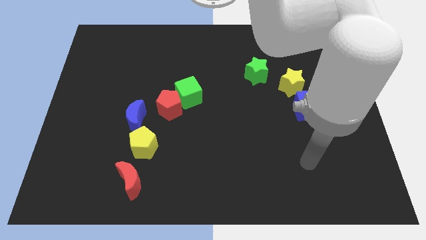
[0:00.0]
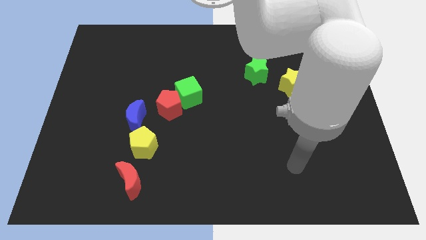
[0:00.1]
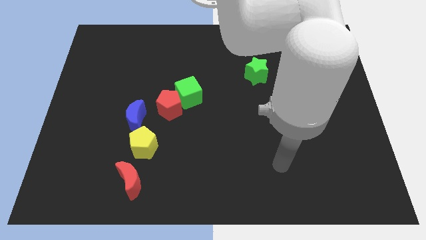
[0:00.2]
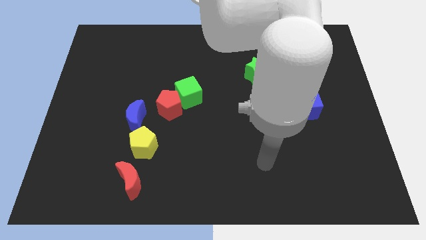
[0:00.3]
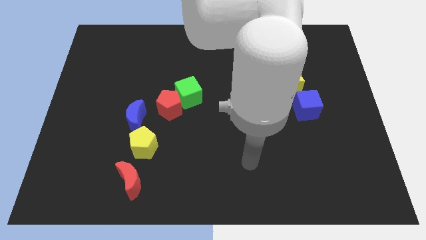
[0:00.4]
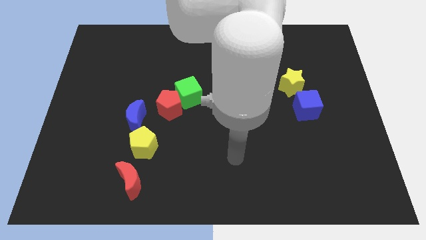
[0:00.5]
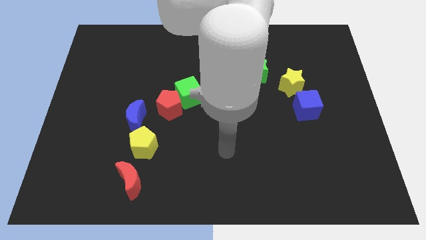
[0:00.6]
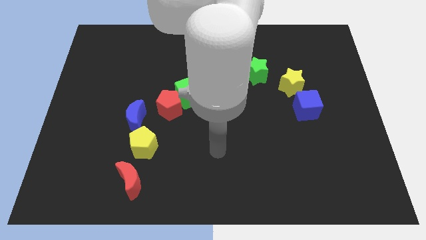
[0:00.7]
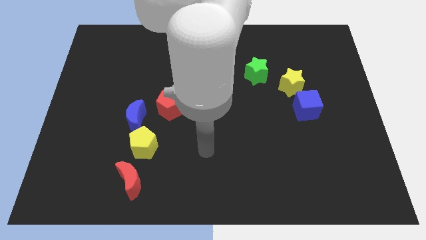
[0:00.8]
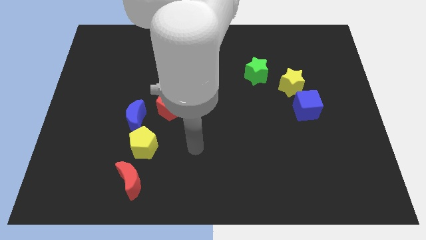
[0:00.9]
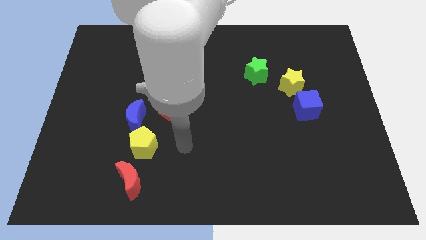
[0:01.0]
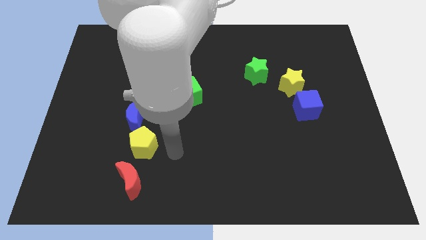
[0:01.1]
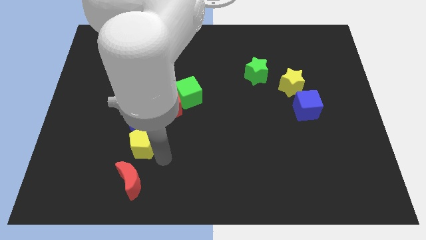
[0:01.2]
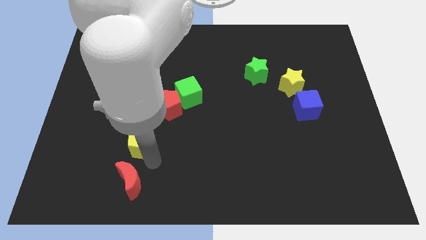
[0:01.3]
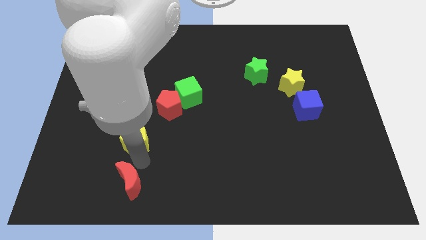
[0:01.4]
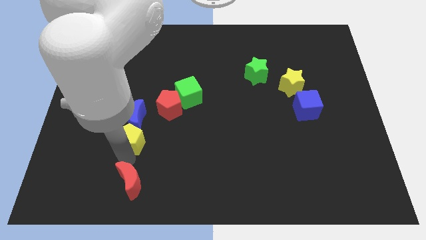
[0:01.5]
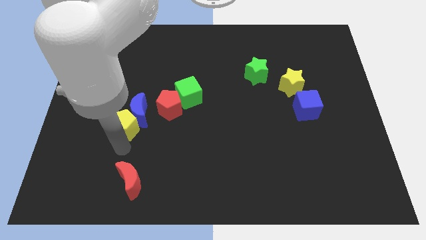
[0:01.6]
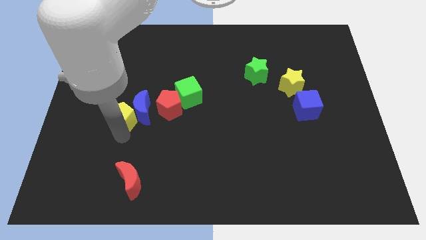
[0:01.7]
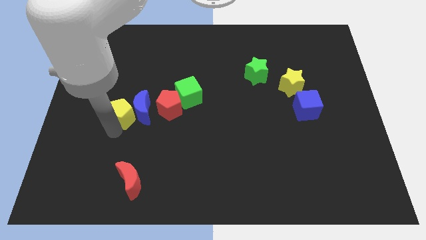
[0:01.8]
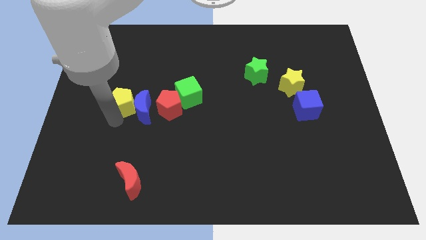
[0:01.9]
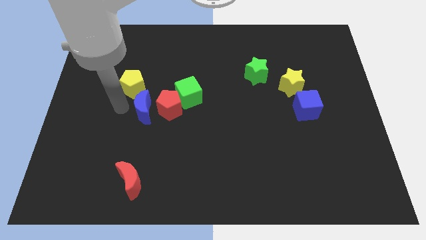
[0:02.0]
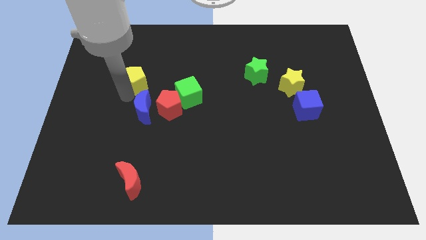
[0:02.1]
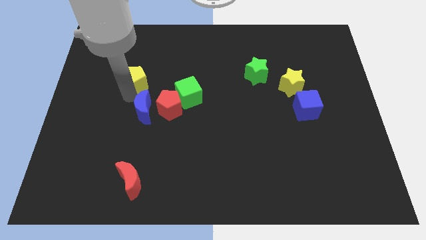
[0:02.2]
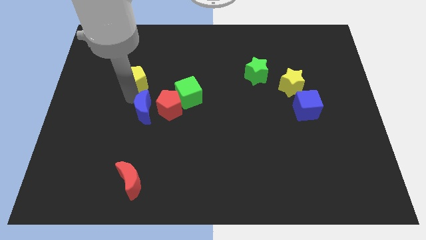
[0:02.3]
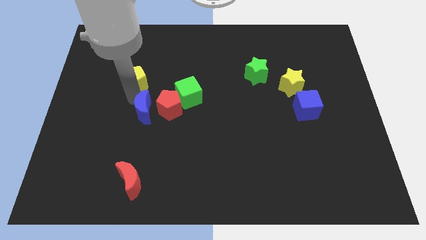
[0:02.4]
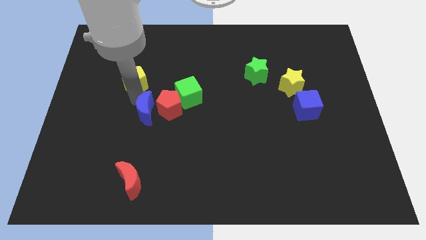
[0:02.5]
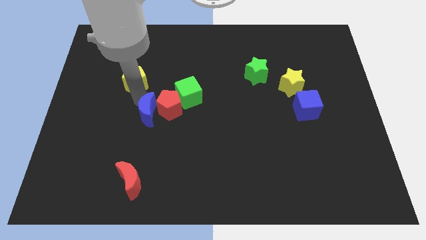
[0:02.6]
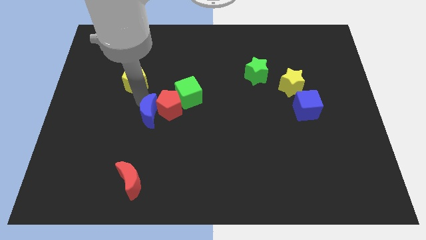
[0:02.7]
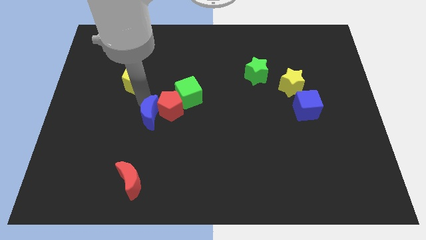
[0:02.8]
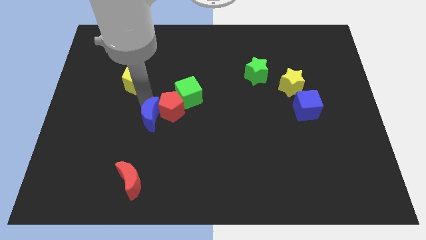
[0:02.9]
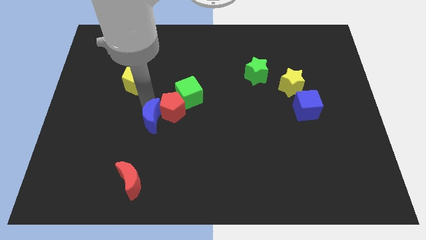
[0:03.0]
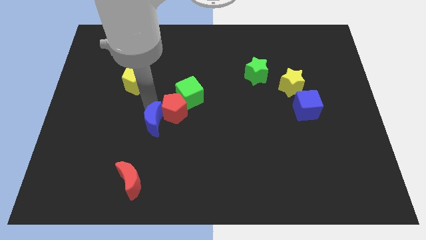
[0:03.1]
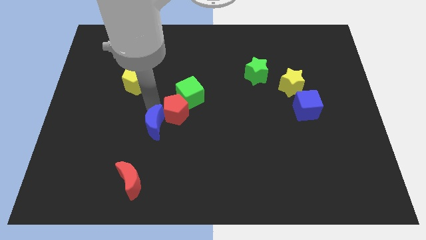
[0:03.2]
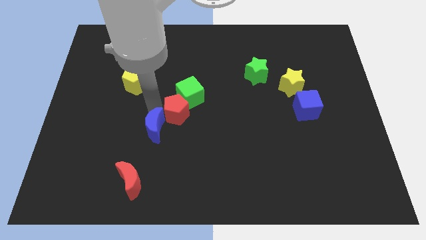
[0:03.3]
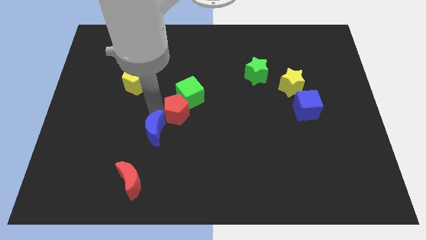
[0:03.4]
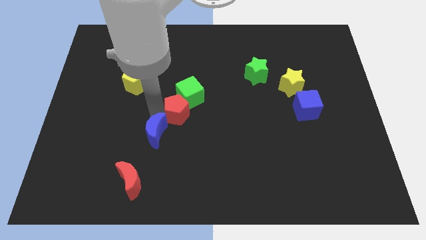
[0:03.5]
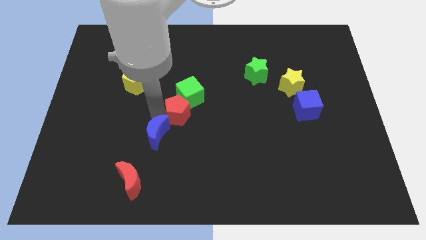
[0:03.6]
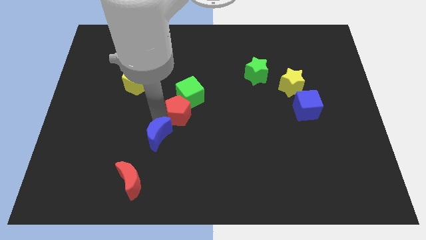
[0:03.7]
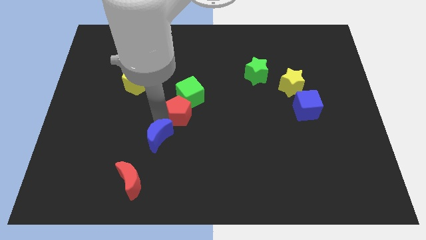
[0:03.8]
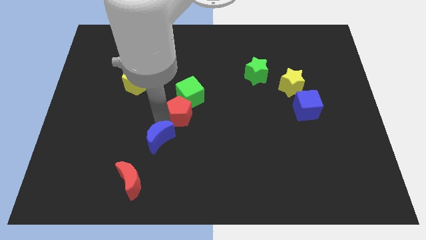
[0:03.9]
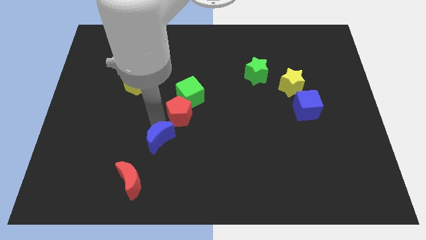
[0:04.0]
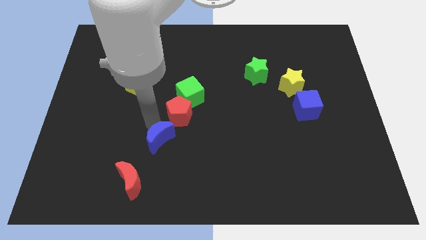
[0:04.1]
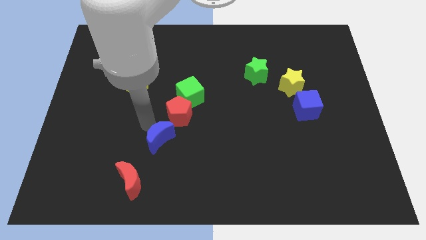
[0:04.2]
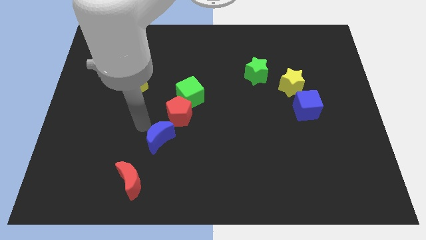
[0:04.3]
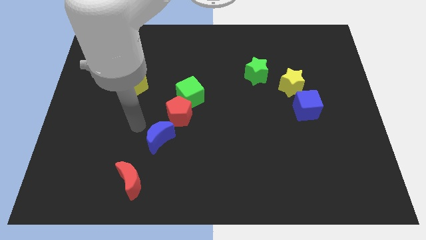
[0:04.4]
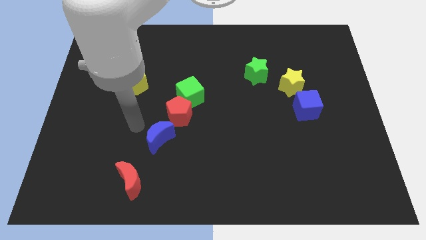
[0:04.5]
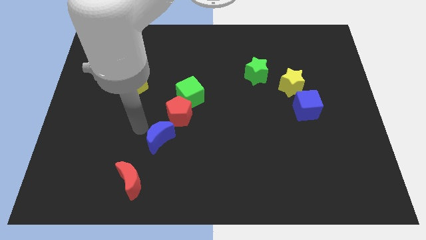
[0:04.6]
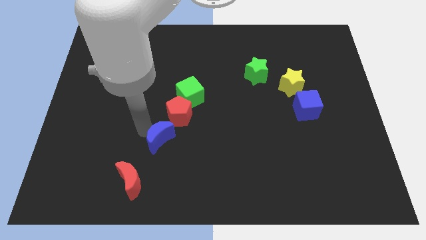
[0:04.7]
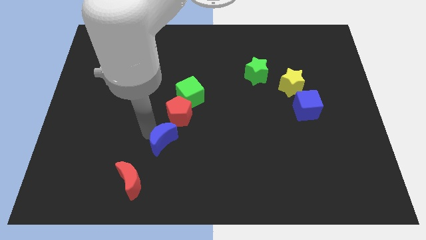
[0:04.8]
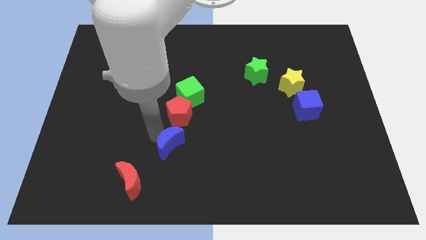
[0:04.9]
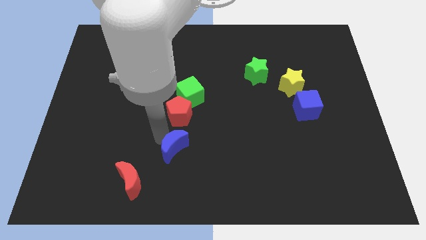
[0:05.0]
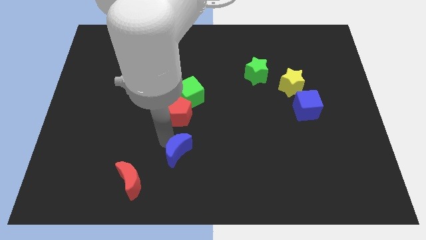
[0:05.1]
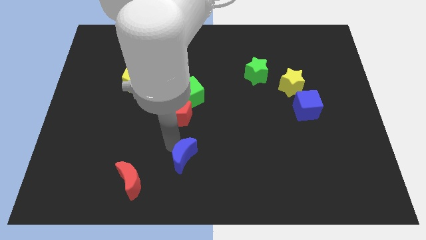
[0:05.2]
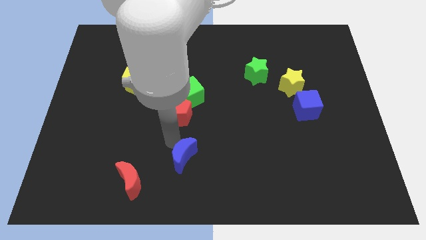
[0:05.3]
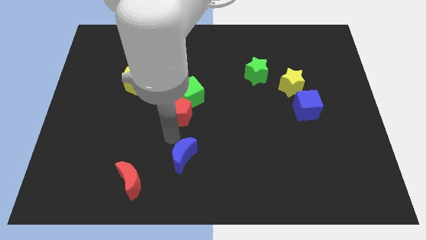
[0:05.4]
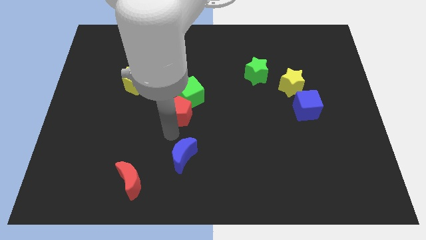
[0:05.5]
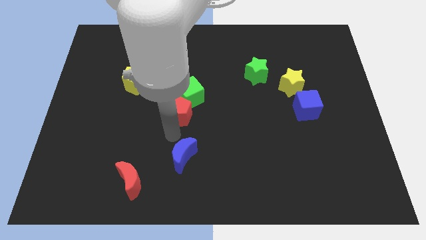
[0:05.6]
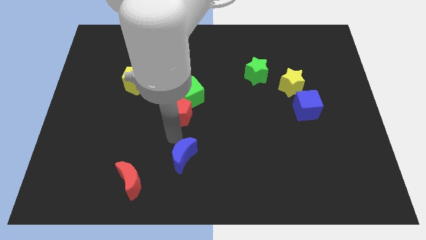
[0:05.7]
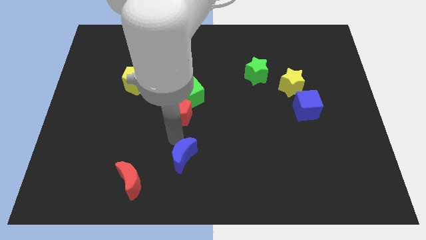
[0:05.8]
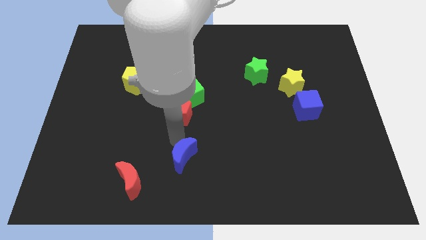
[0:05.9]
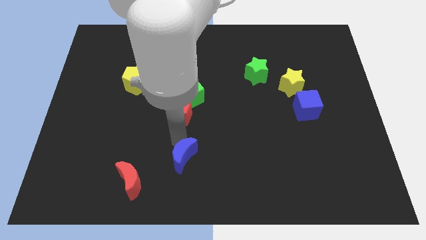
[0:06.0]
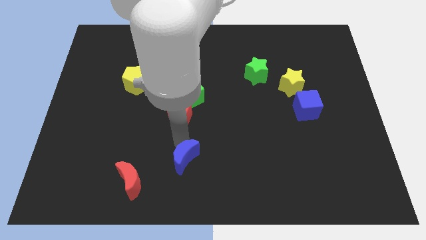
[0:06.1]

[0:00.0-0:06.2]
put the blue moon to the bottom side
